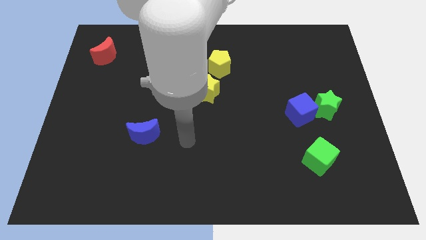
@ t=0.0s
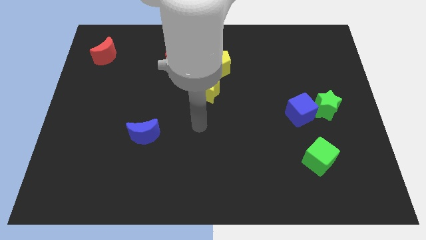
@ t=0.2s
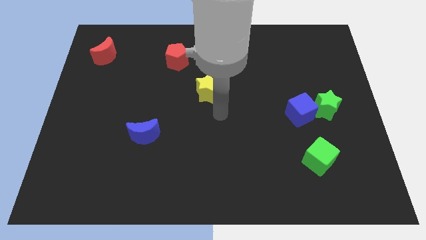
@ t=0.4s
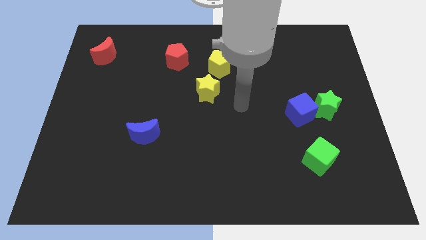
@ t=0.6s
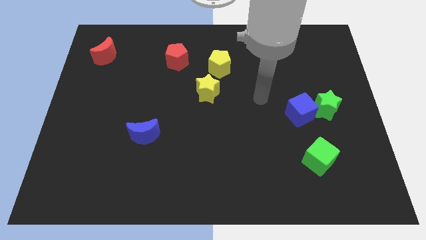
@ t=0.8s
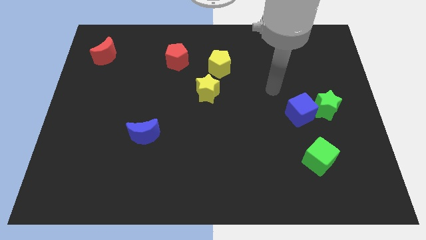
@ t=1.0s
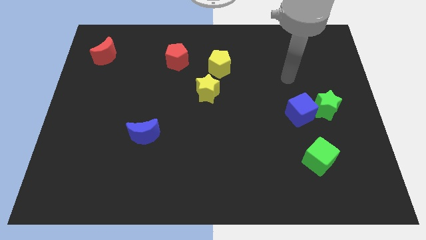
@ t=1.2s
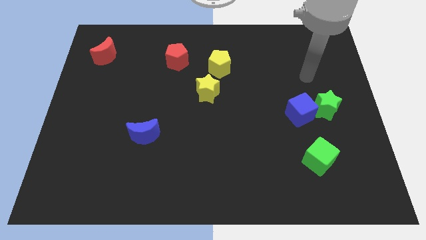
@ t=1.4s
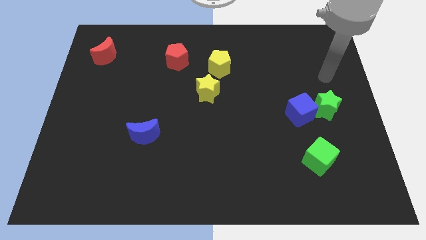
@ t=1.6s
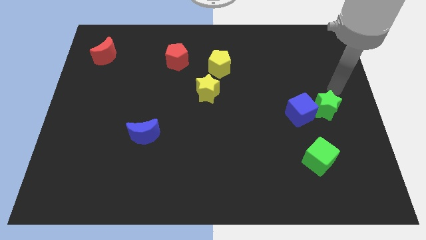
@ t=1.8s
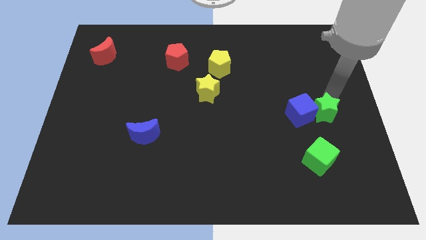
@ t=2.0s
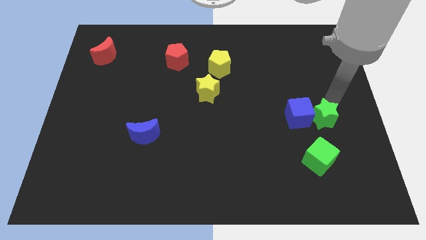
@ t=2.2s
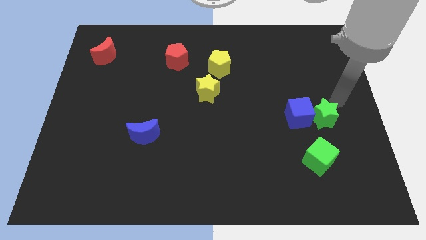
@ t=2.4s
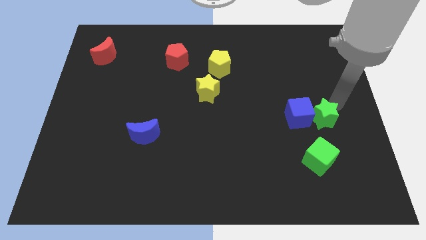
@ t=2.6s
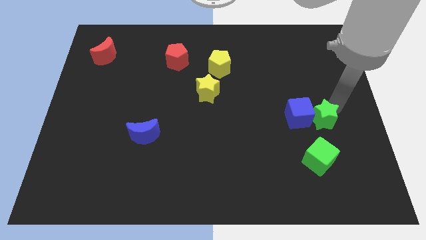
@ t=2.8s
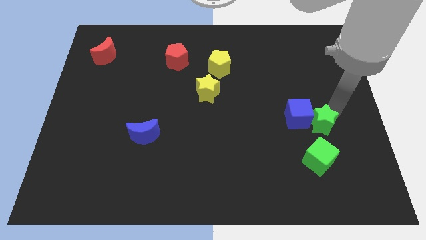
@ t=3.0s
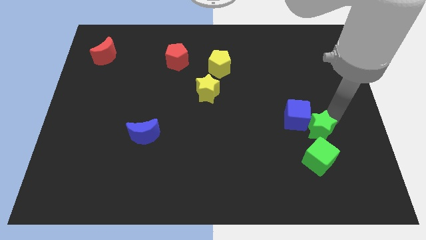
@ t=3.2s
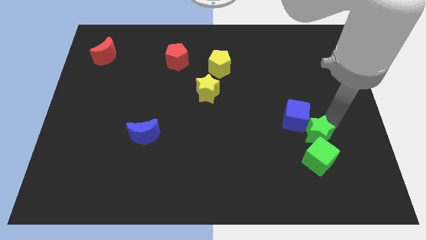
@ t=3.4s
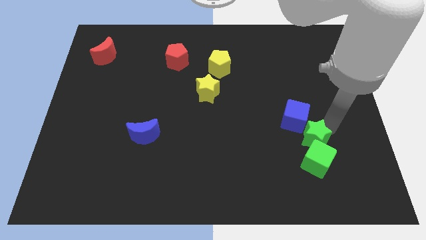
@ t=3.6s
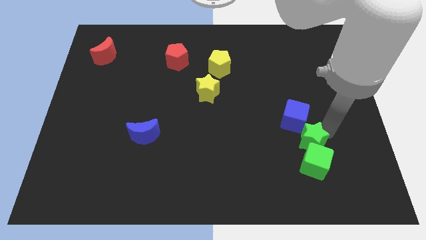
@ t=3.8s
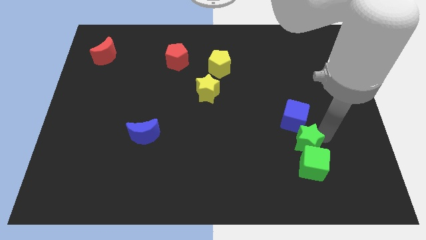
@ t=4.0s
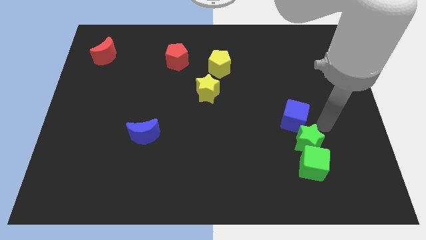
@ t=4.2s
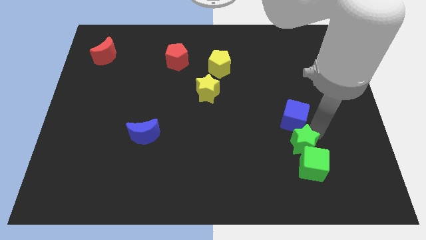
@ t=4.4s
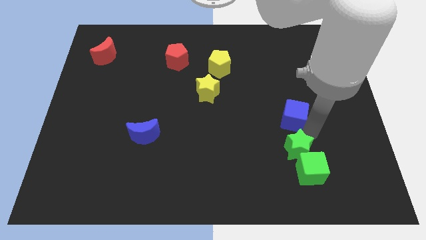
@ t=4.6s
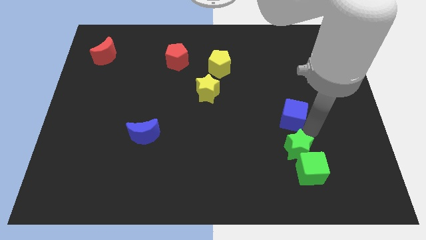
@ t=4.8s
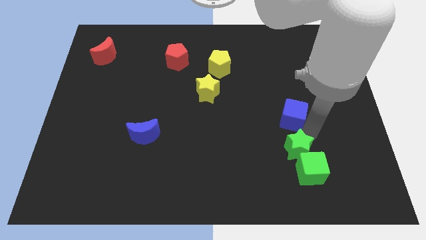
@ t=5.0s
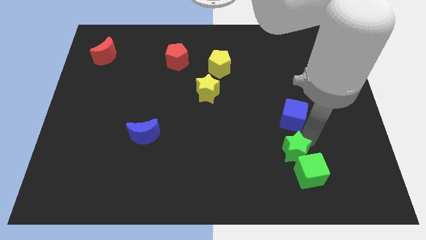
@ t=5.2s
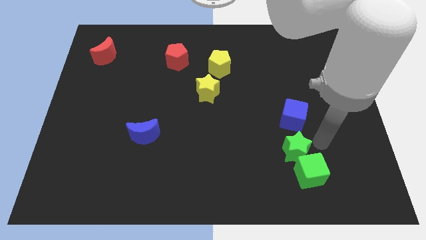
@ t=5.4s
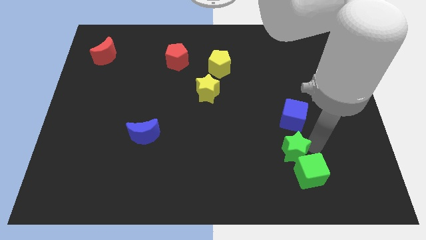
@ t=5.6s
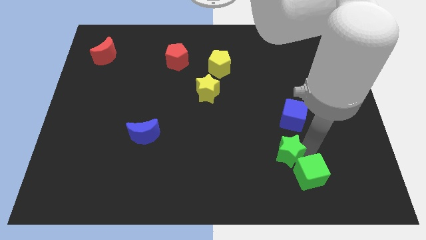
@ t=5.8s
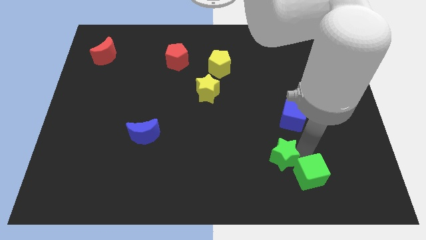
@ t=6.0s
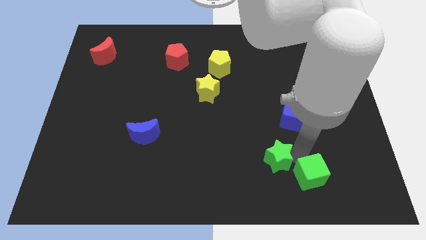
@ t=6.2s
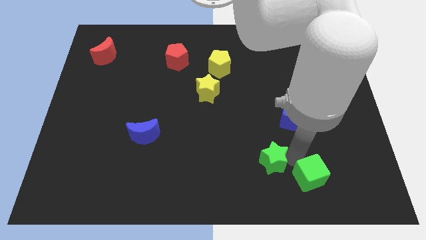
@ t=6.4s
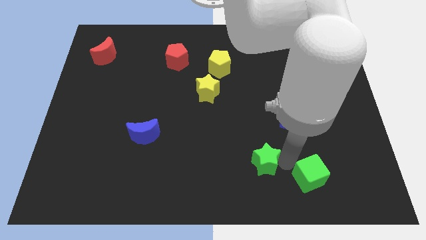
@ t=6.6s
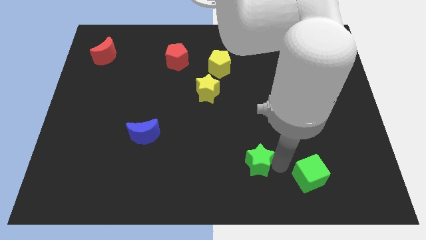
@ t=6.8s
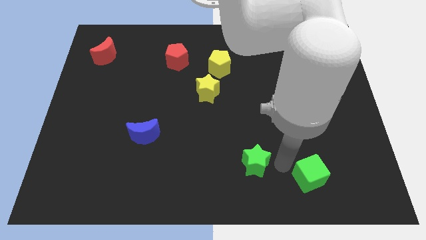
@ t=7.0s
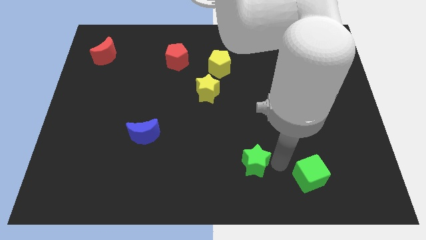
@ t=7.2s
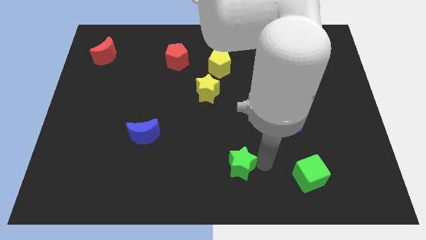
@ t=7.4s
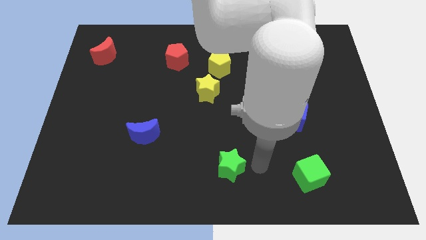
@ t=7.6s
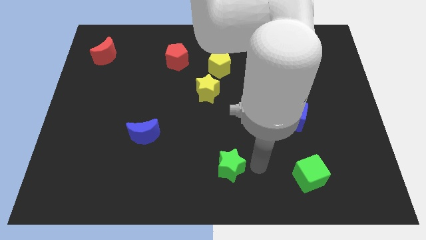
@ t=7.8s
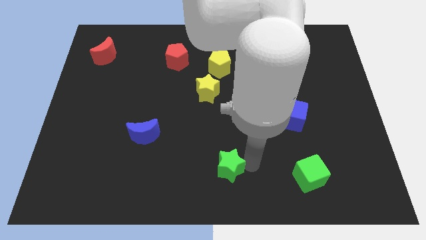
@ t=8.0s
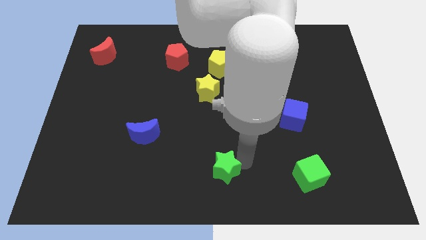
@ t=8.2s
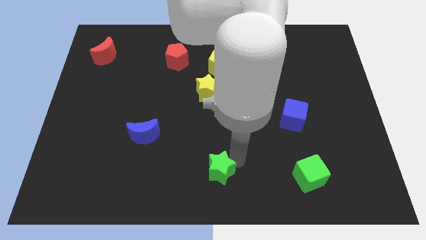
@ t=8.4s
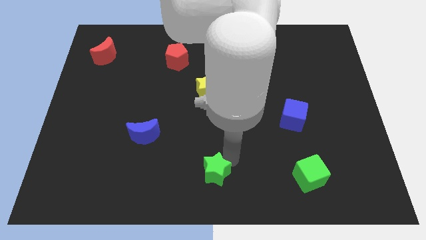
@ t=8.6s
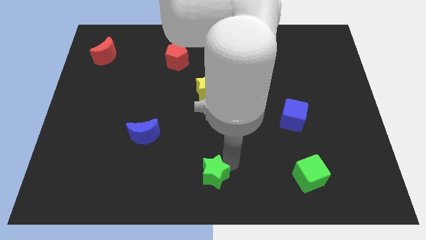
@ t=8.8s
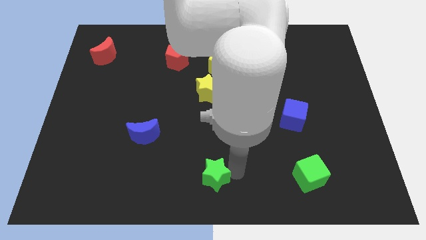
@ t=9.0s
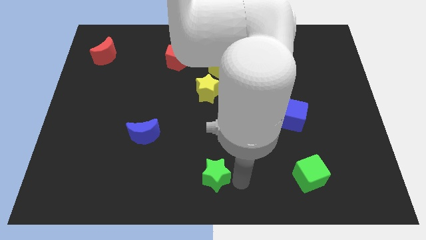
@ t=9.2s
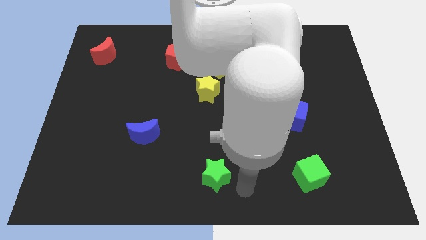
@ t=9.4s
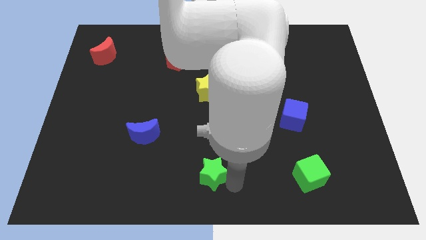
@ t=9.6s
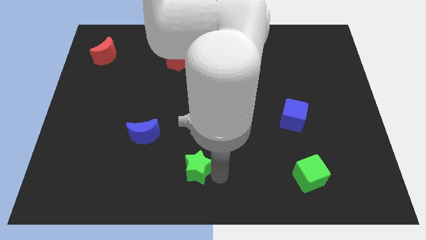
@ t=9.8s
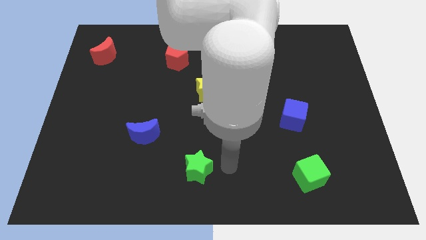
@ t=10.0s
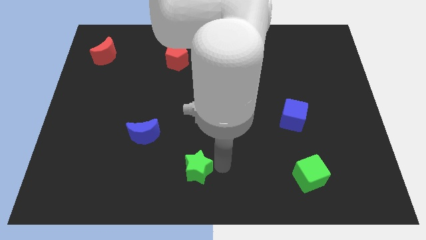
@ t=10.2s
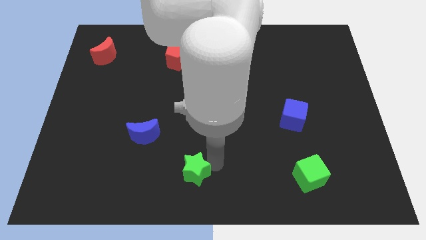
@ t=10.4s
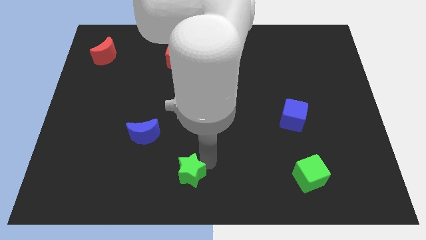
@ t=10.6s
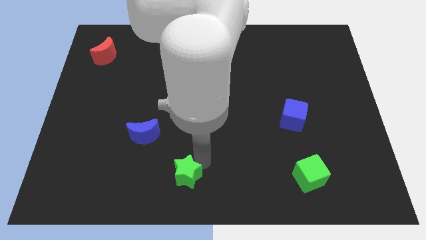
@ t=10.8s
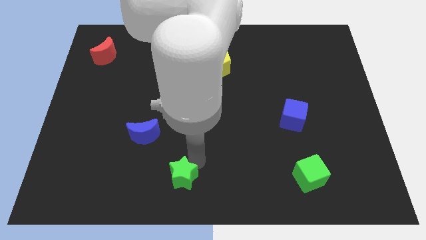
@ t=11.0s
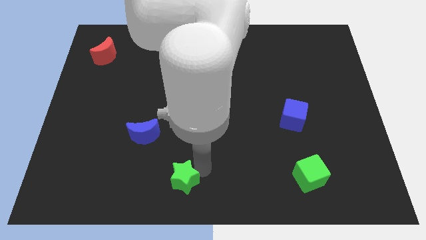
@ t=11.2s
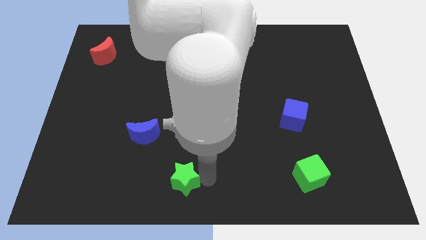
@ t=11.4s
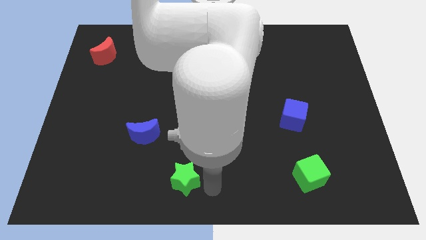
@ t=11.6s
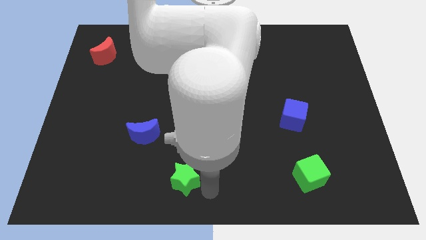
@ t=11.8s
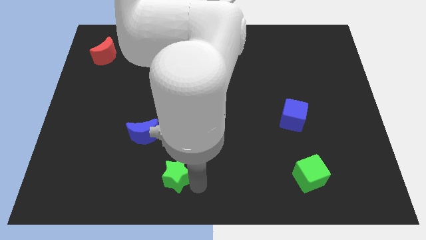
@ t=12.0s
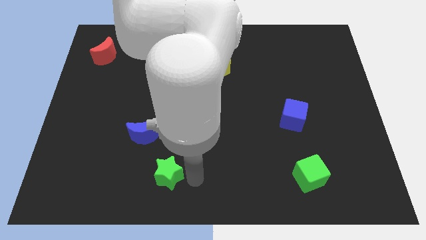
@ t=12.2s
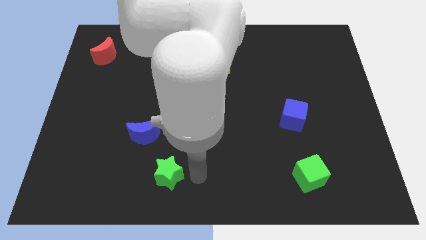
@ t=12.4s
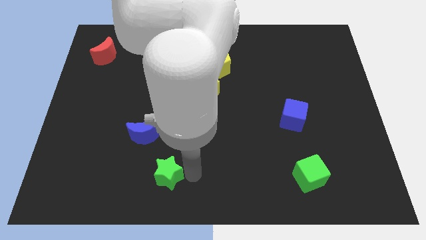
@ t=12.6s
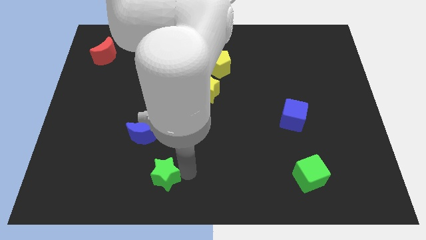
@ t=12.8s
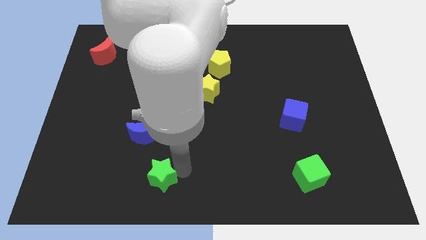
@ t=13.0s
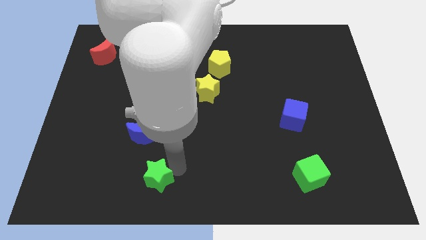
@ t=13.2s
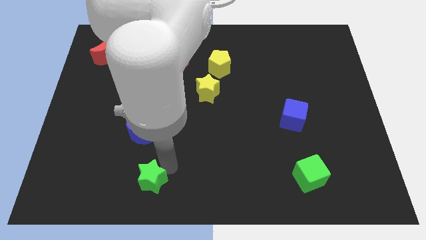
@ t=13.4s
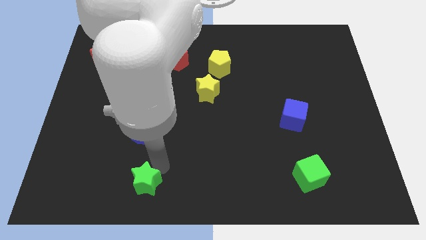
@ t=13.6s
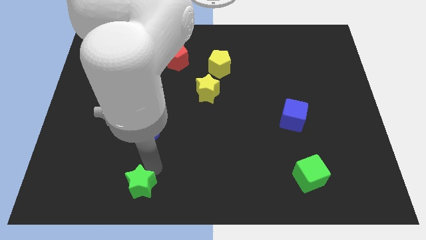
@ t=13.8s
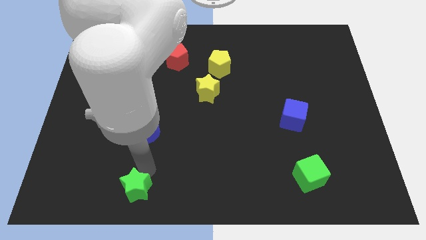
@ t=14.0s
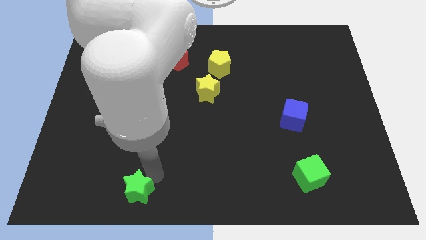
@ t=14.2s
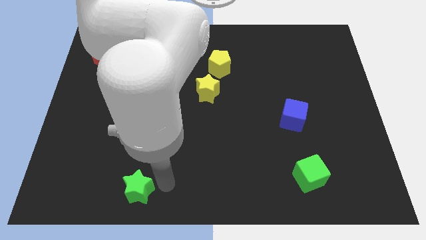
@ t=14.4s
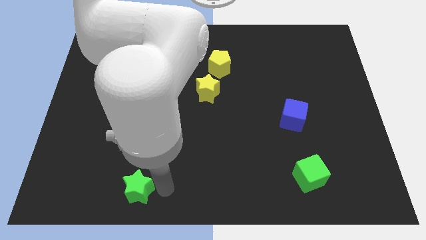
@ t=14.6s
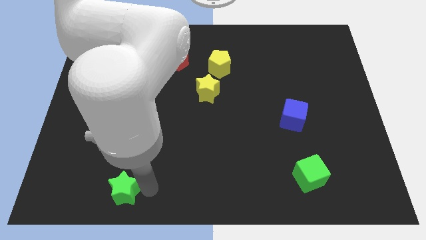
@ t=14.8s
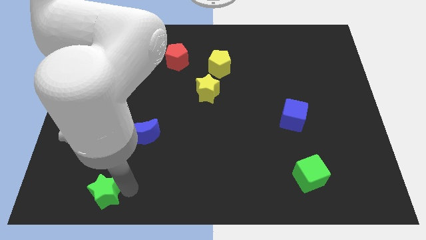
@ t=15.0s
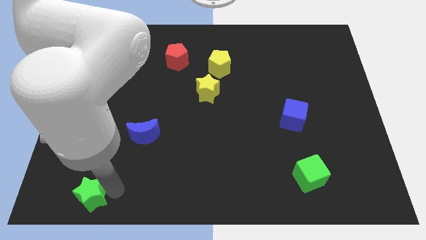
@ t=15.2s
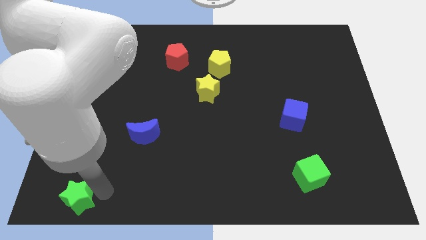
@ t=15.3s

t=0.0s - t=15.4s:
move the green star to the bottom left corner
